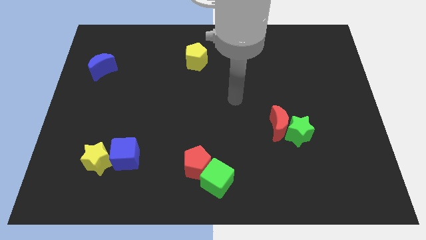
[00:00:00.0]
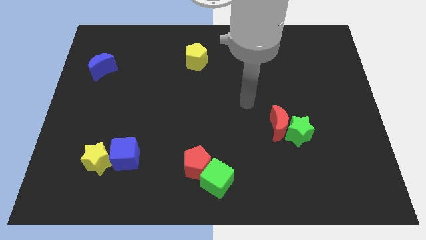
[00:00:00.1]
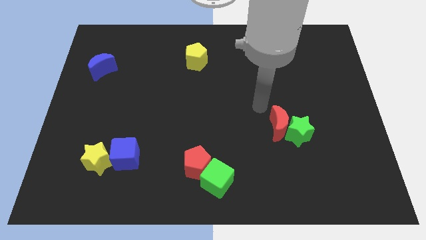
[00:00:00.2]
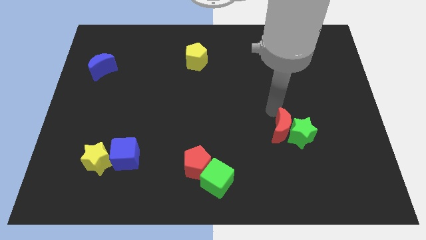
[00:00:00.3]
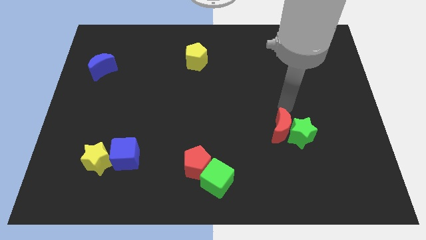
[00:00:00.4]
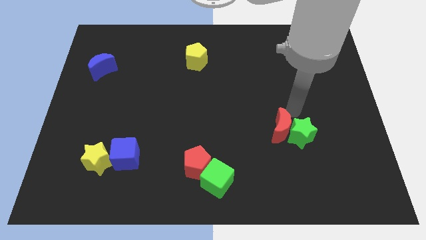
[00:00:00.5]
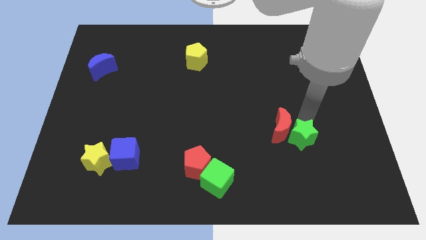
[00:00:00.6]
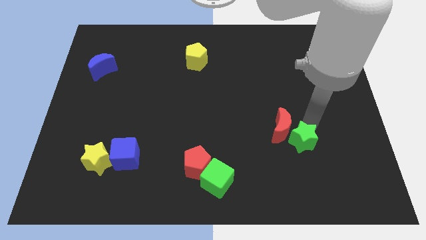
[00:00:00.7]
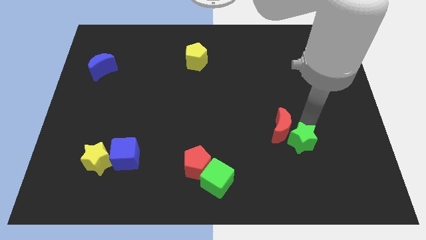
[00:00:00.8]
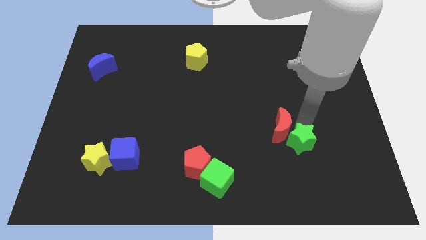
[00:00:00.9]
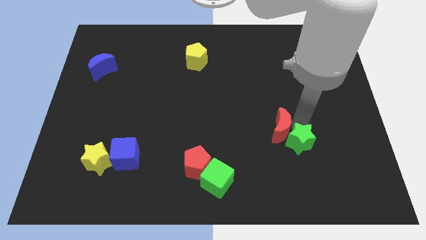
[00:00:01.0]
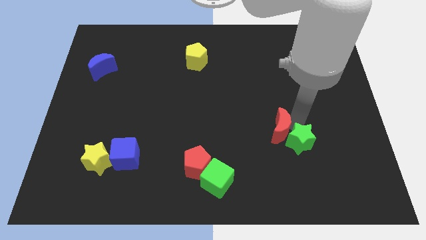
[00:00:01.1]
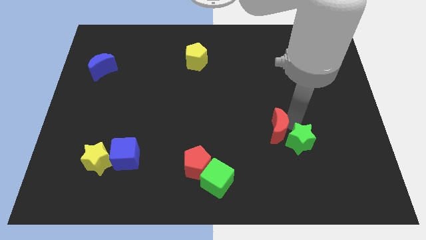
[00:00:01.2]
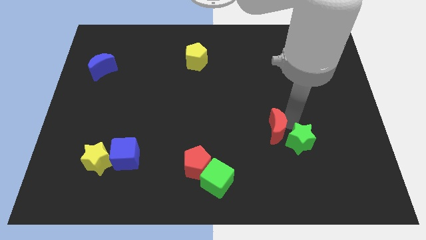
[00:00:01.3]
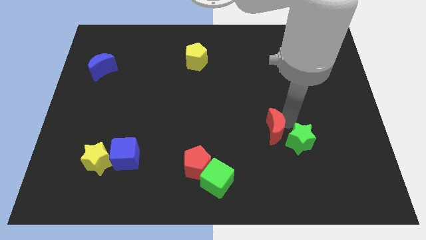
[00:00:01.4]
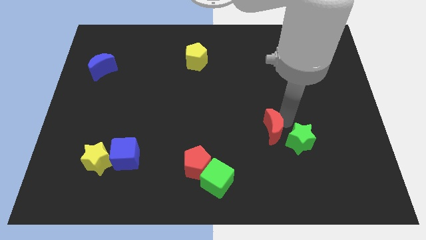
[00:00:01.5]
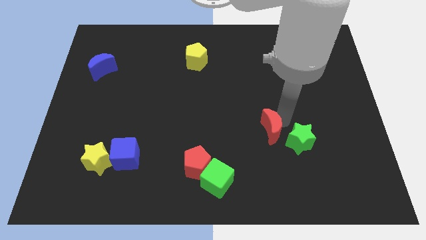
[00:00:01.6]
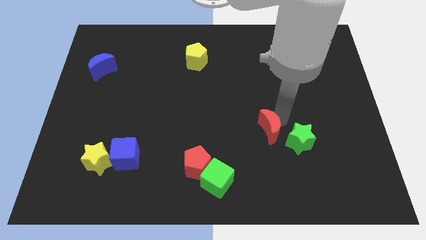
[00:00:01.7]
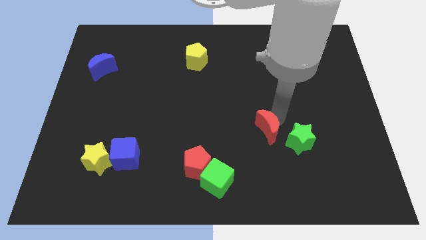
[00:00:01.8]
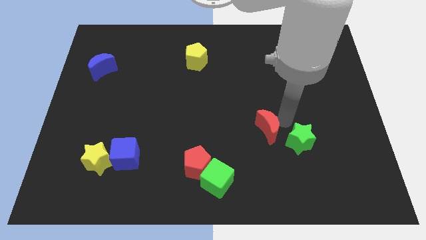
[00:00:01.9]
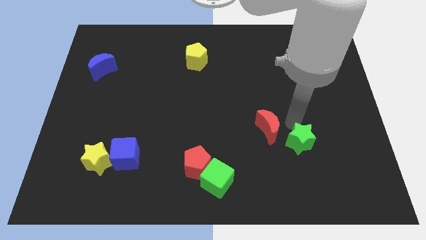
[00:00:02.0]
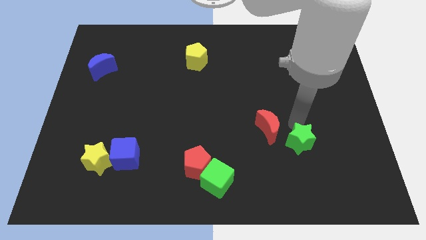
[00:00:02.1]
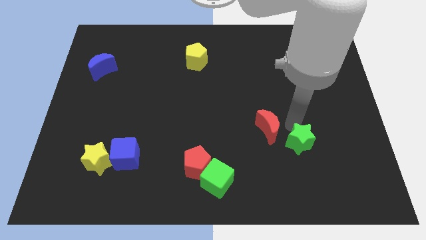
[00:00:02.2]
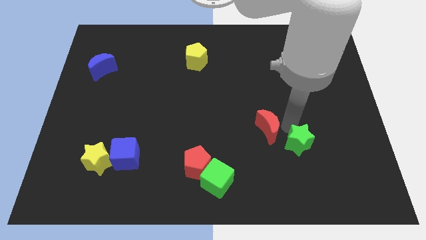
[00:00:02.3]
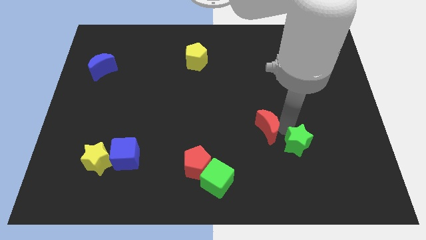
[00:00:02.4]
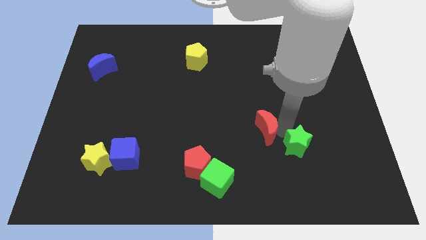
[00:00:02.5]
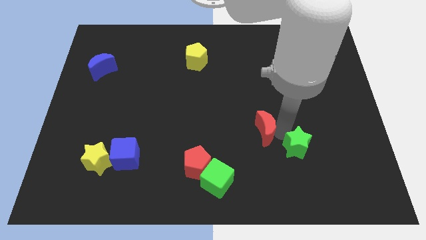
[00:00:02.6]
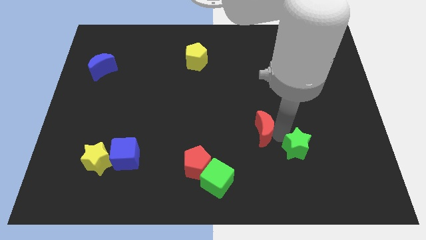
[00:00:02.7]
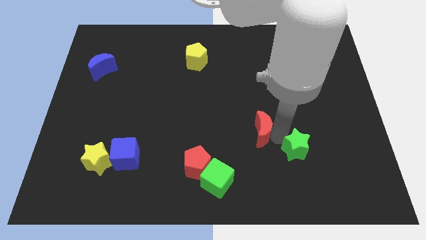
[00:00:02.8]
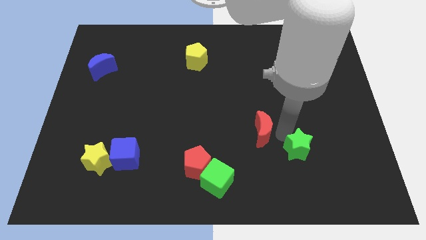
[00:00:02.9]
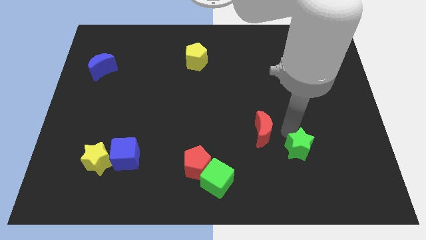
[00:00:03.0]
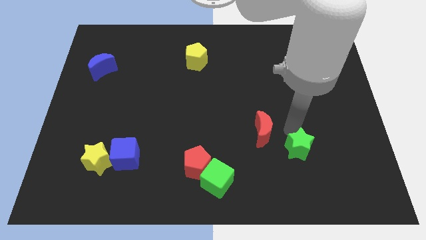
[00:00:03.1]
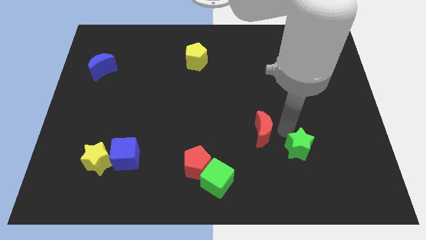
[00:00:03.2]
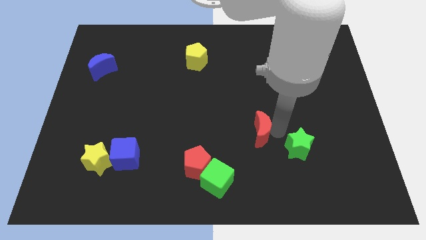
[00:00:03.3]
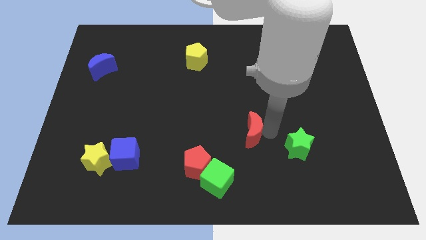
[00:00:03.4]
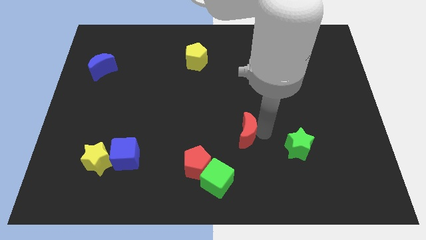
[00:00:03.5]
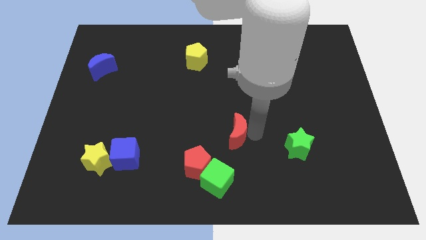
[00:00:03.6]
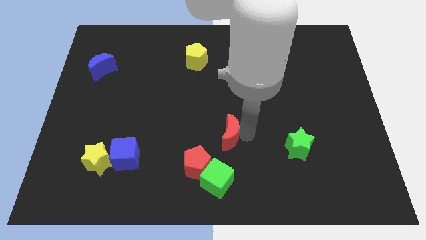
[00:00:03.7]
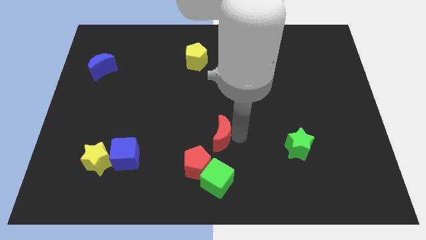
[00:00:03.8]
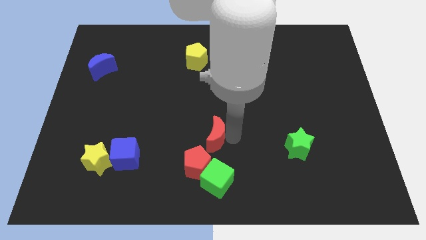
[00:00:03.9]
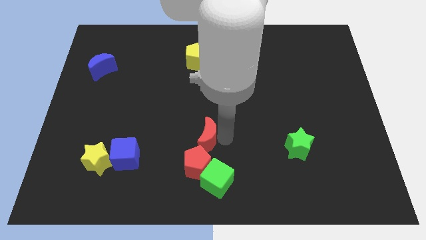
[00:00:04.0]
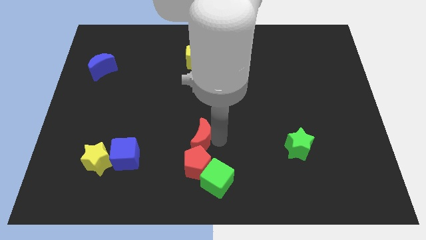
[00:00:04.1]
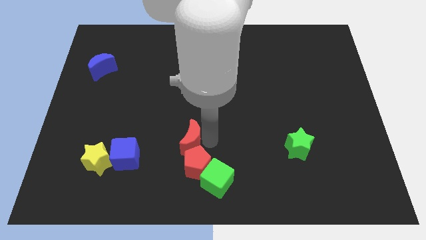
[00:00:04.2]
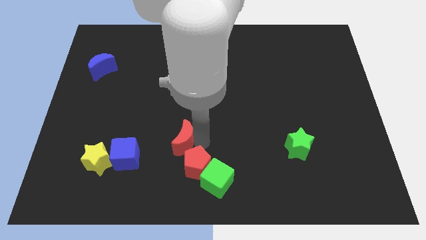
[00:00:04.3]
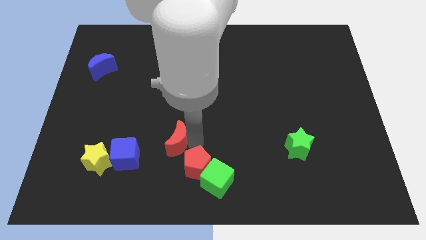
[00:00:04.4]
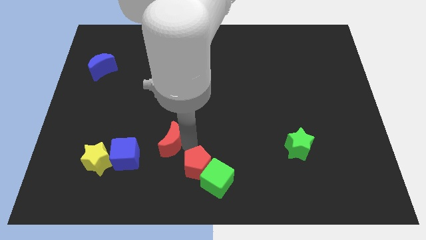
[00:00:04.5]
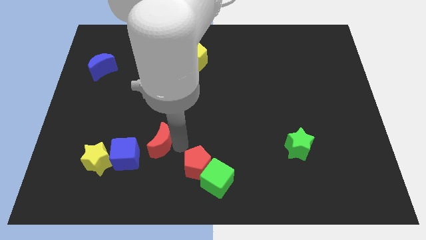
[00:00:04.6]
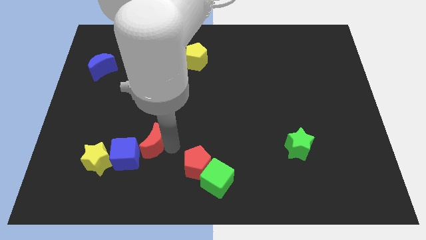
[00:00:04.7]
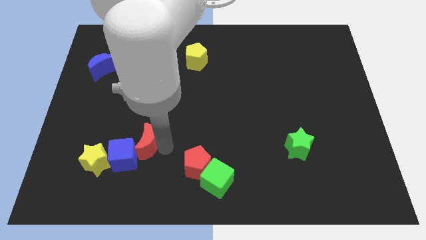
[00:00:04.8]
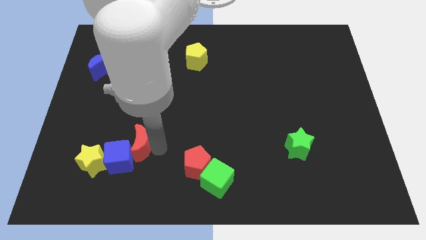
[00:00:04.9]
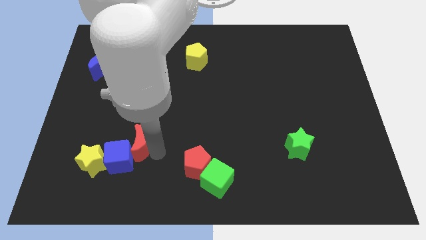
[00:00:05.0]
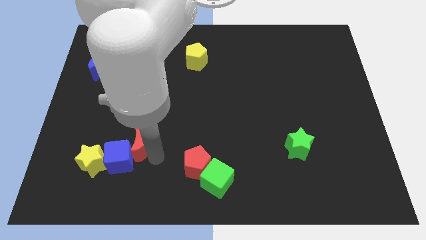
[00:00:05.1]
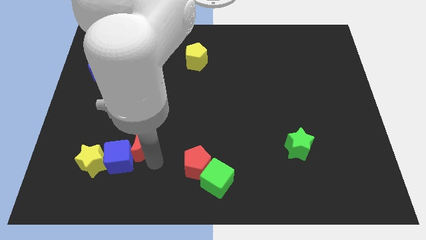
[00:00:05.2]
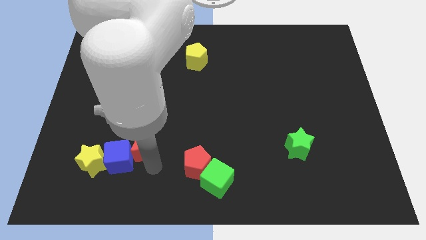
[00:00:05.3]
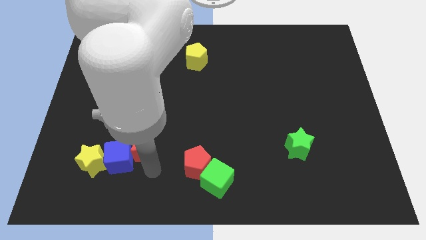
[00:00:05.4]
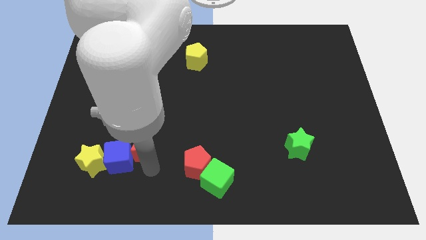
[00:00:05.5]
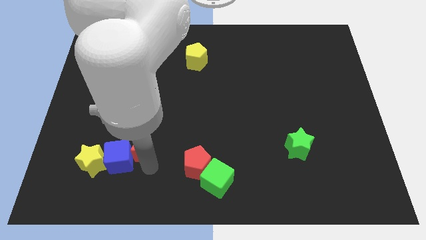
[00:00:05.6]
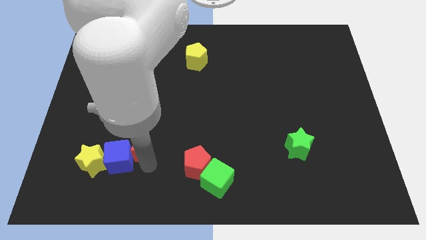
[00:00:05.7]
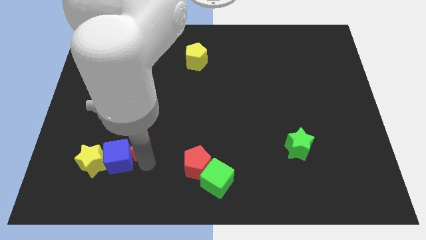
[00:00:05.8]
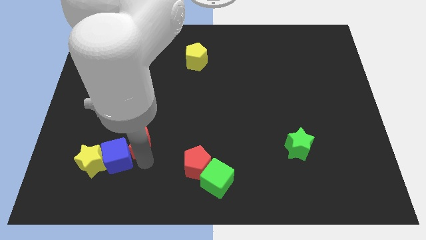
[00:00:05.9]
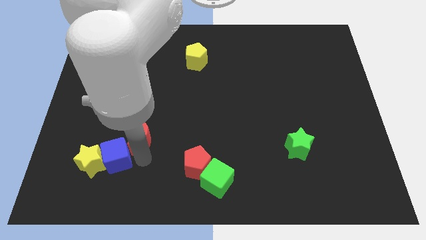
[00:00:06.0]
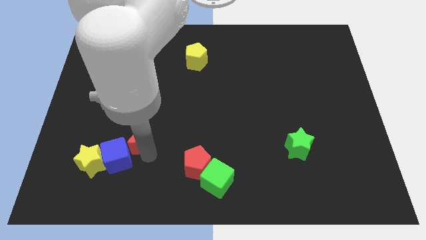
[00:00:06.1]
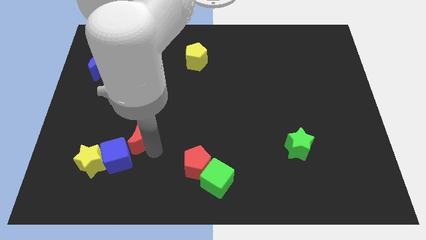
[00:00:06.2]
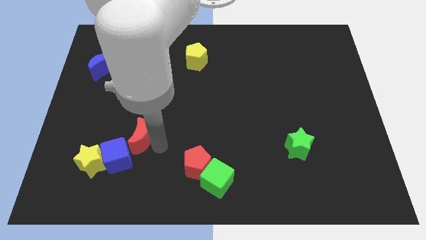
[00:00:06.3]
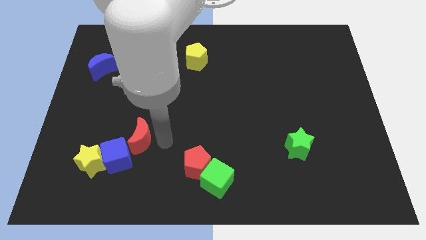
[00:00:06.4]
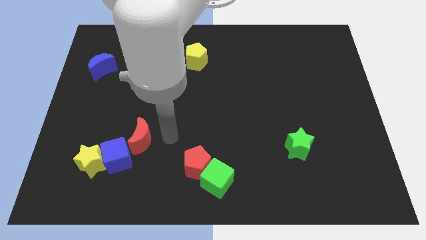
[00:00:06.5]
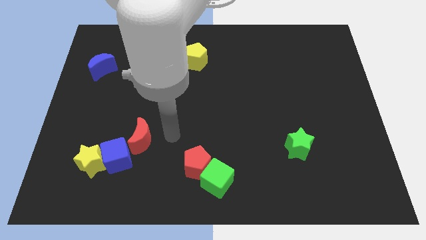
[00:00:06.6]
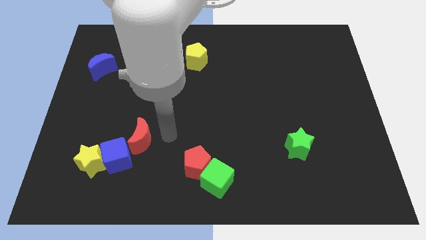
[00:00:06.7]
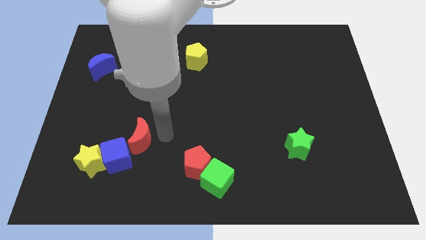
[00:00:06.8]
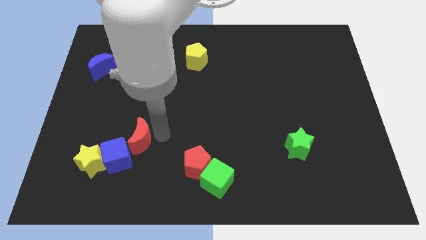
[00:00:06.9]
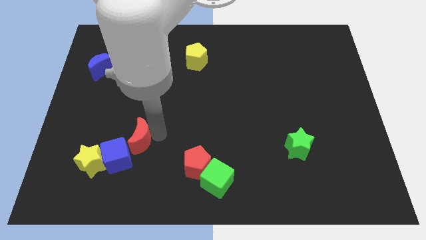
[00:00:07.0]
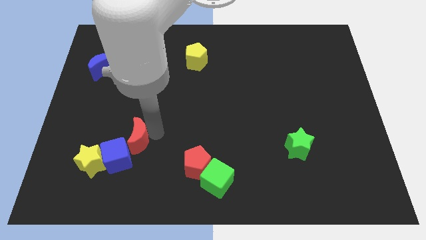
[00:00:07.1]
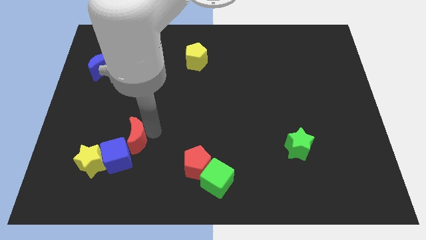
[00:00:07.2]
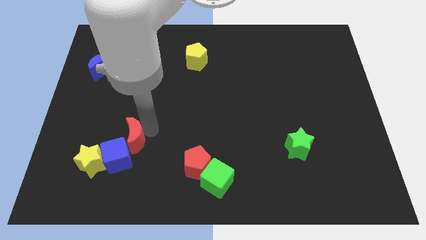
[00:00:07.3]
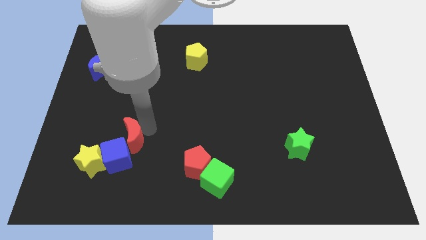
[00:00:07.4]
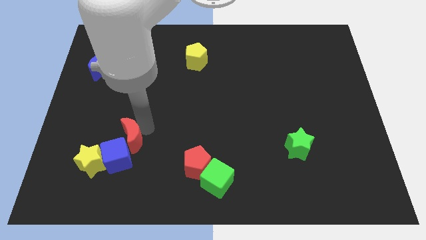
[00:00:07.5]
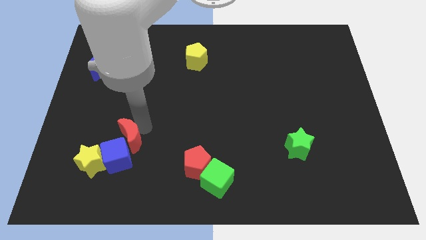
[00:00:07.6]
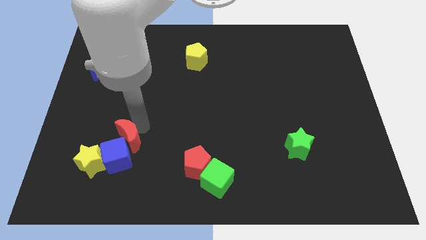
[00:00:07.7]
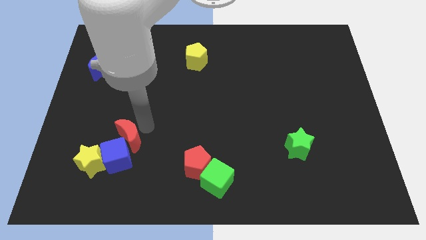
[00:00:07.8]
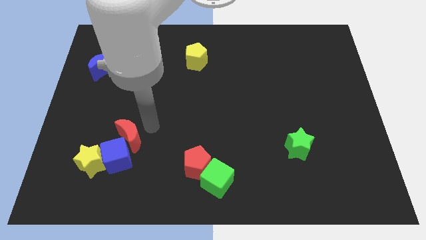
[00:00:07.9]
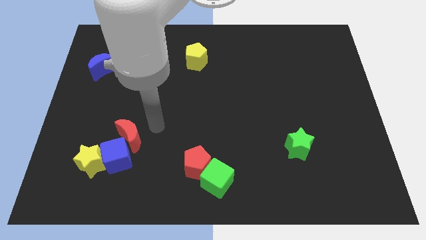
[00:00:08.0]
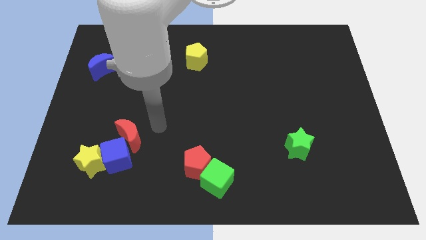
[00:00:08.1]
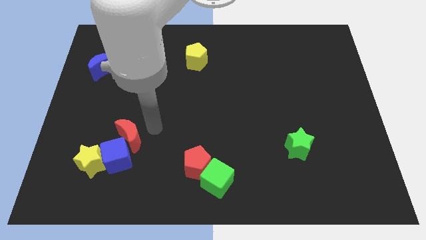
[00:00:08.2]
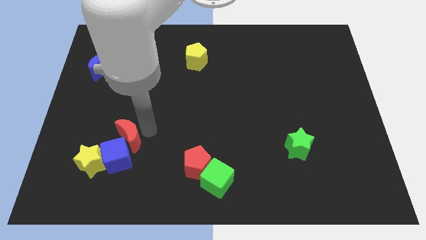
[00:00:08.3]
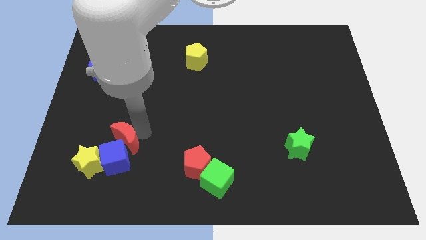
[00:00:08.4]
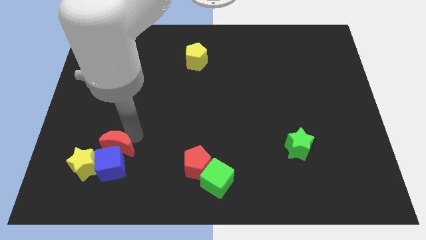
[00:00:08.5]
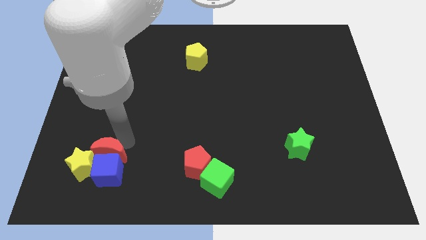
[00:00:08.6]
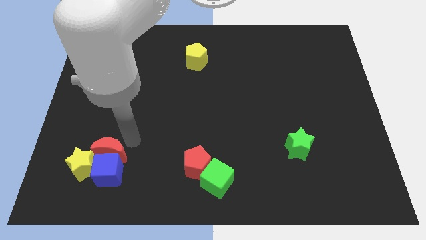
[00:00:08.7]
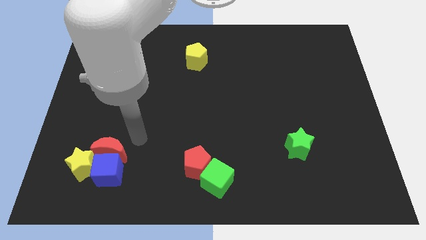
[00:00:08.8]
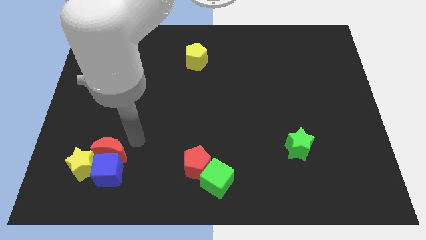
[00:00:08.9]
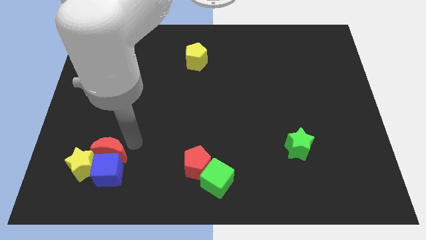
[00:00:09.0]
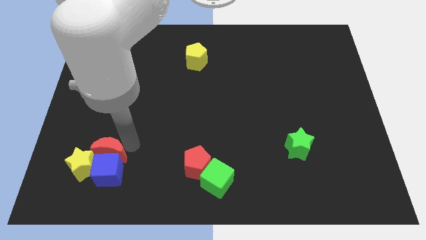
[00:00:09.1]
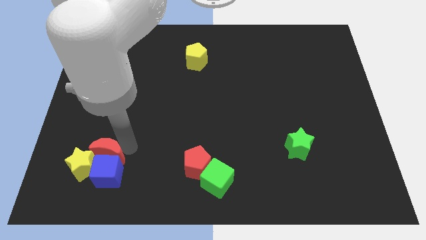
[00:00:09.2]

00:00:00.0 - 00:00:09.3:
put the red moon next to the yellow star
